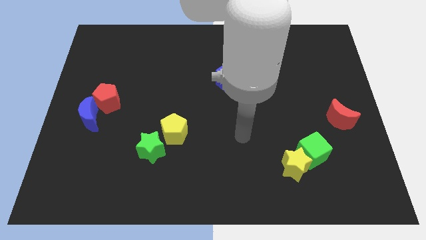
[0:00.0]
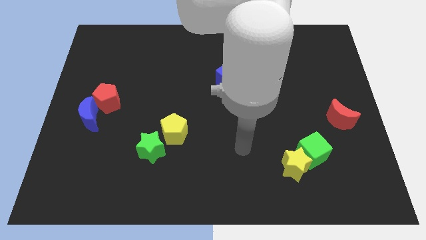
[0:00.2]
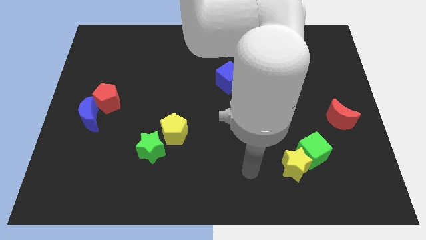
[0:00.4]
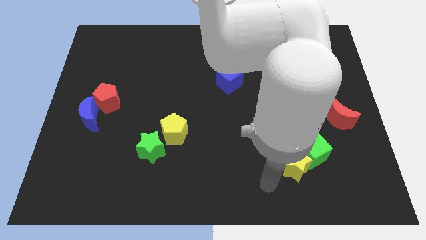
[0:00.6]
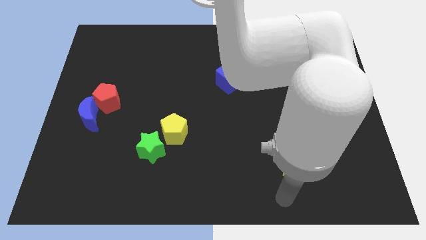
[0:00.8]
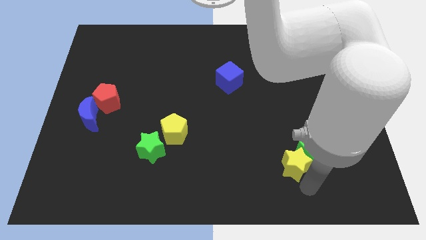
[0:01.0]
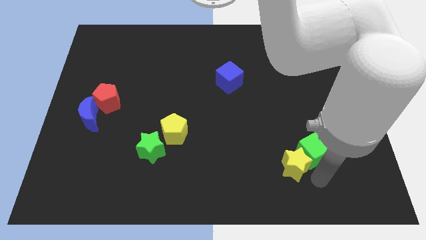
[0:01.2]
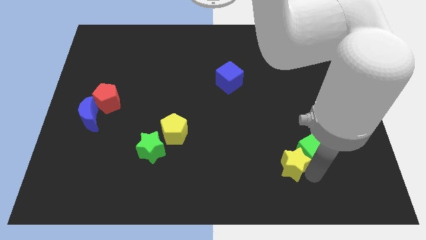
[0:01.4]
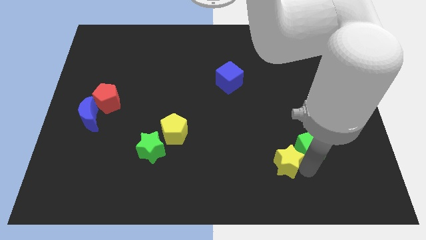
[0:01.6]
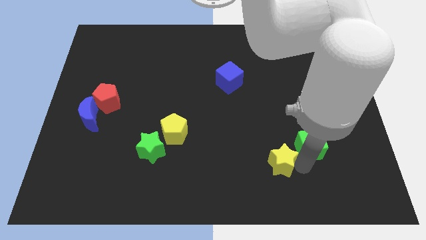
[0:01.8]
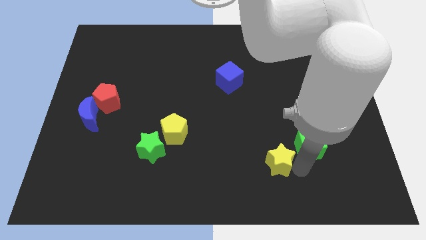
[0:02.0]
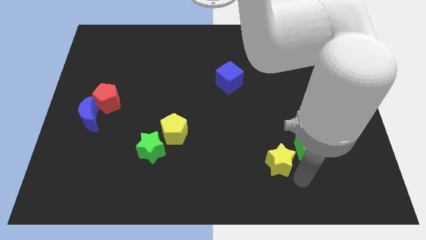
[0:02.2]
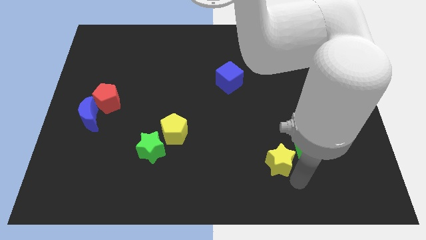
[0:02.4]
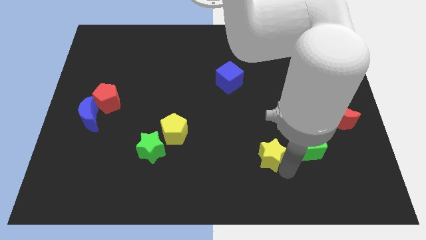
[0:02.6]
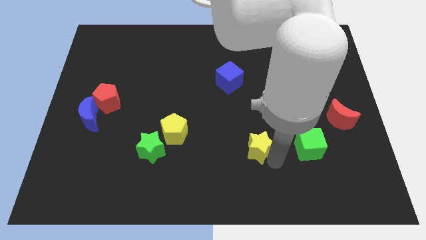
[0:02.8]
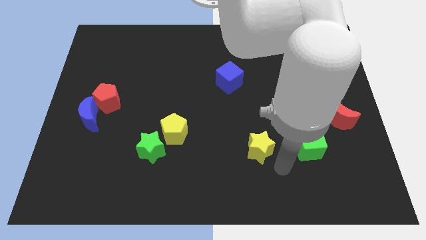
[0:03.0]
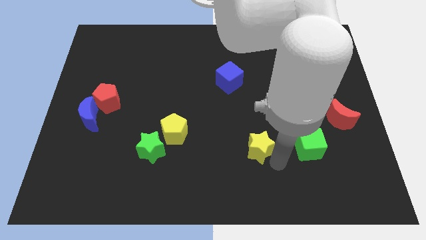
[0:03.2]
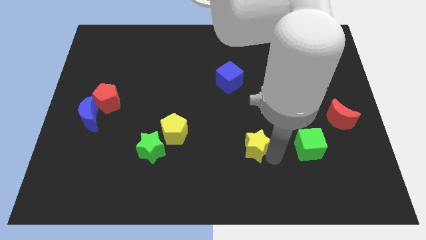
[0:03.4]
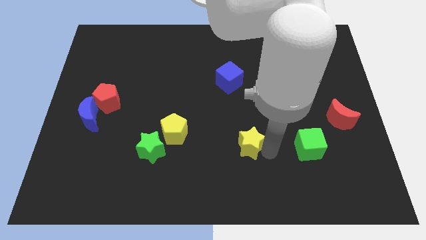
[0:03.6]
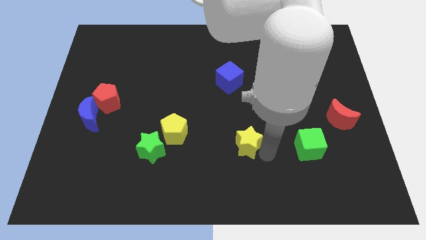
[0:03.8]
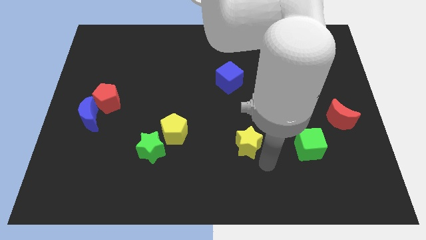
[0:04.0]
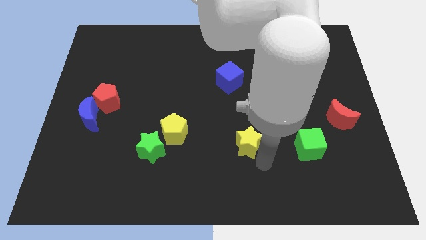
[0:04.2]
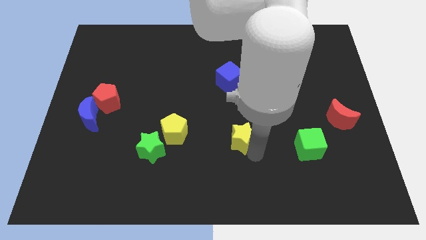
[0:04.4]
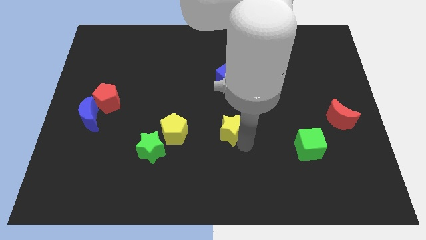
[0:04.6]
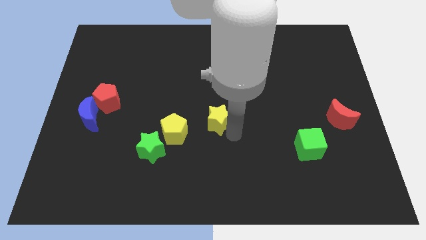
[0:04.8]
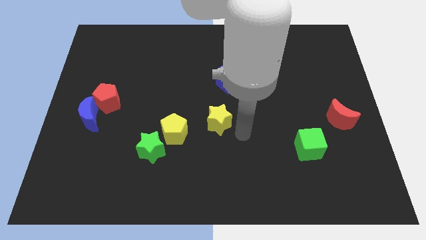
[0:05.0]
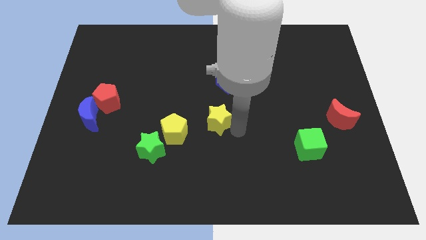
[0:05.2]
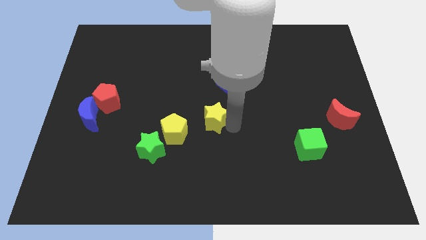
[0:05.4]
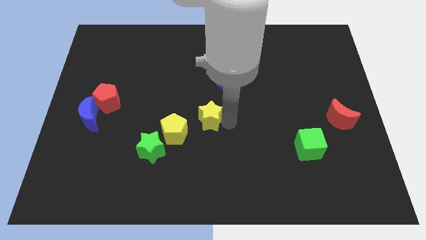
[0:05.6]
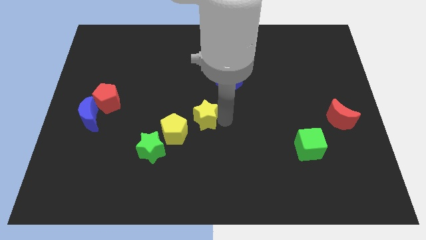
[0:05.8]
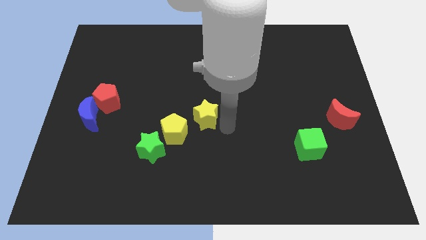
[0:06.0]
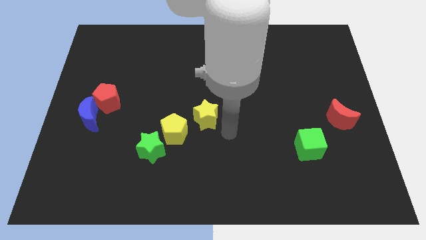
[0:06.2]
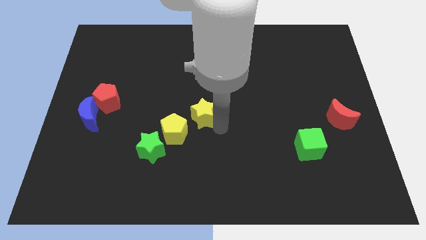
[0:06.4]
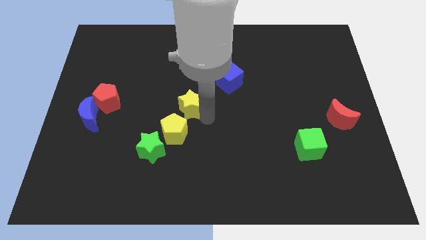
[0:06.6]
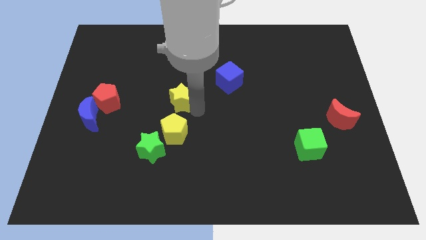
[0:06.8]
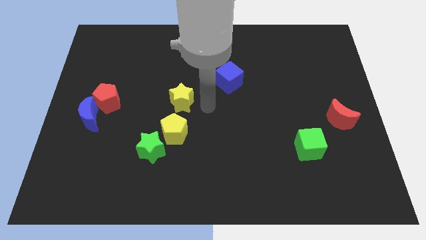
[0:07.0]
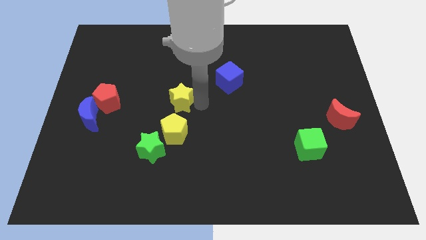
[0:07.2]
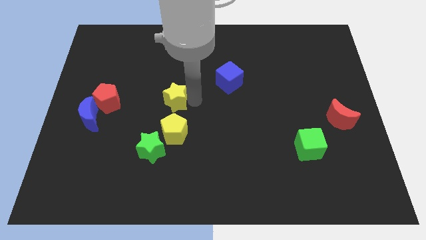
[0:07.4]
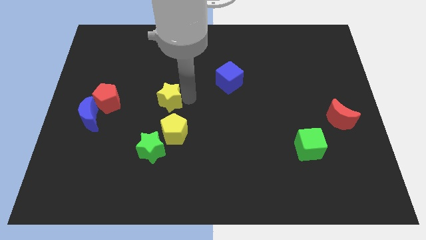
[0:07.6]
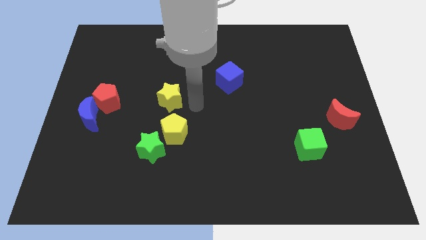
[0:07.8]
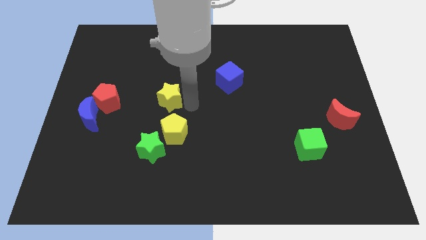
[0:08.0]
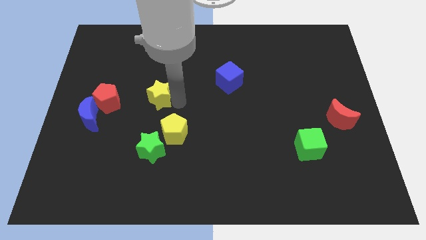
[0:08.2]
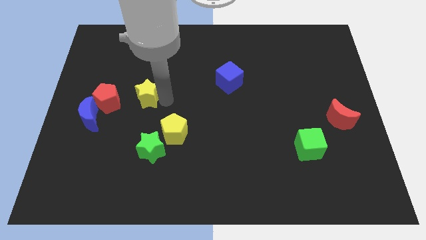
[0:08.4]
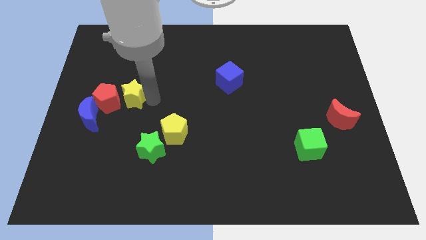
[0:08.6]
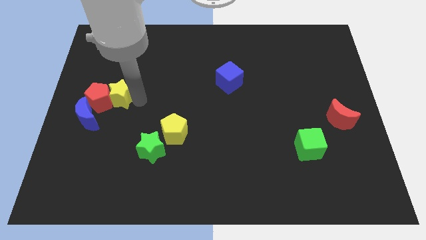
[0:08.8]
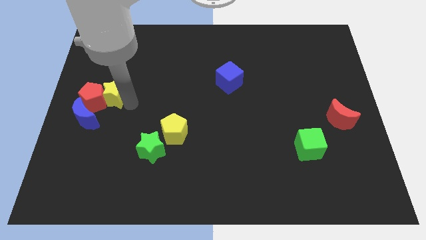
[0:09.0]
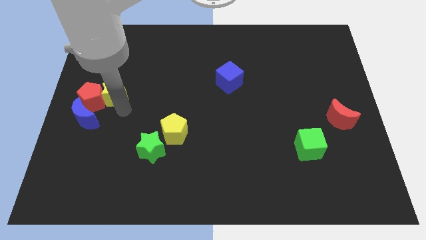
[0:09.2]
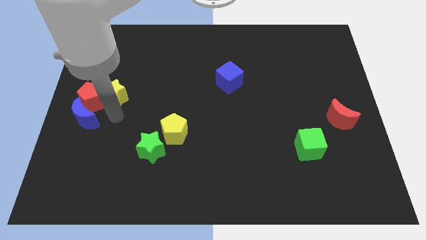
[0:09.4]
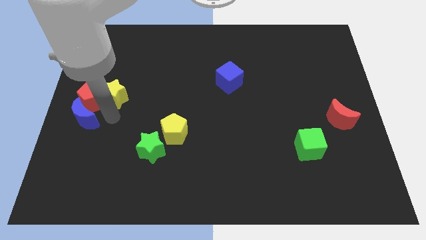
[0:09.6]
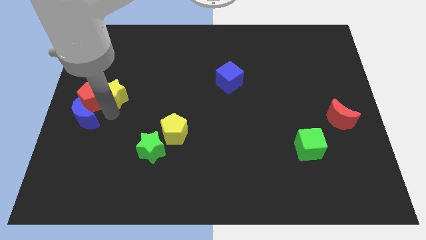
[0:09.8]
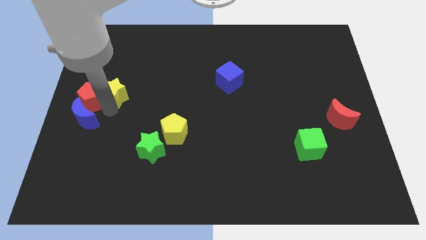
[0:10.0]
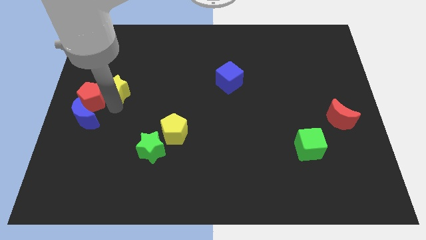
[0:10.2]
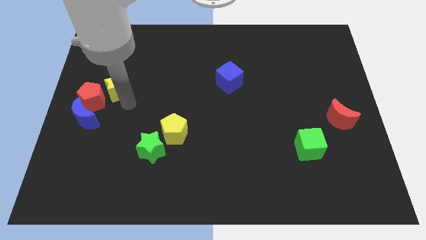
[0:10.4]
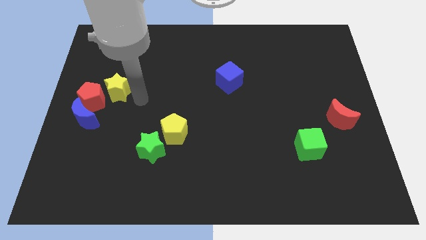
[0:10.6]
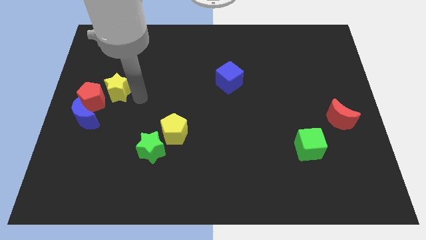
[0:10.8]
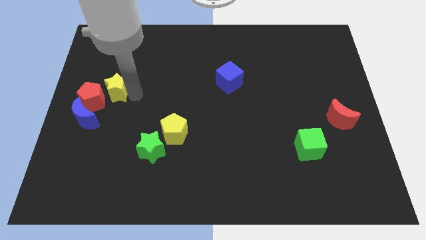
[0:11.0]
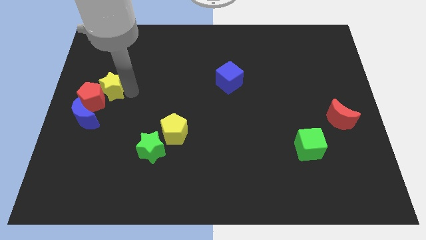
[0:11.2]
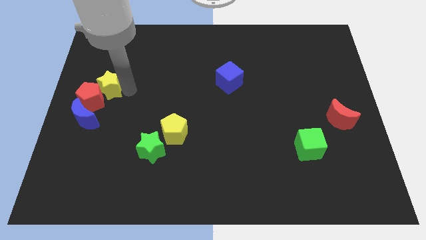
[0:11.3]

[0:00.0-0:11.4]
slide the yellow star above the blue moon

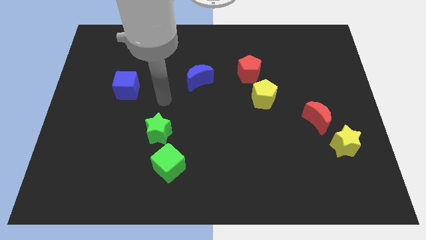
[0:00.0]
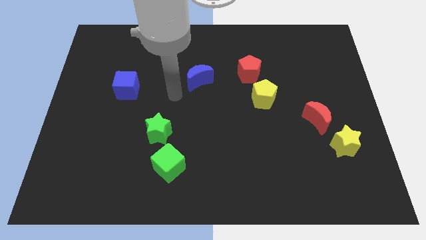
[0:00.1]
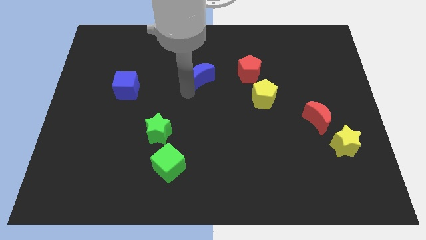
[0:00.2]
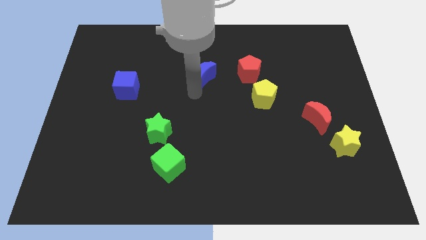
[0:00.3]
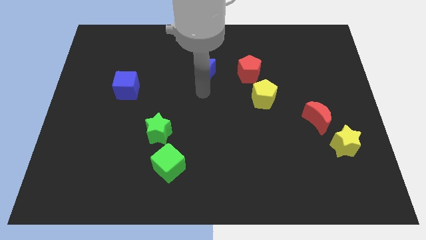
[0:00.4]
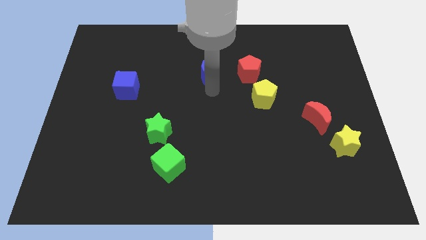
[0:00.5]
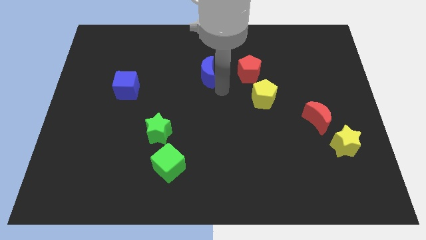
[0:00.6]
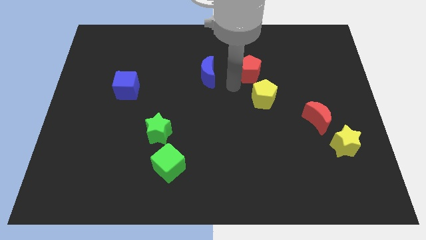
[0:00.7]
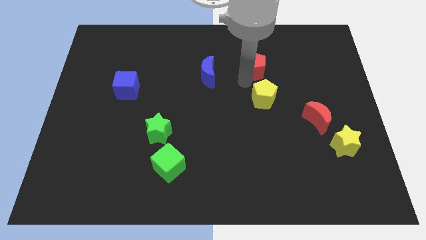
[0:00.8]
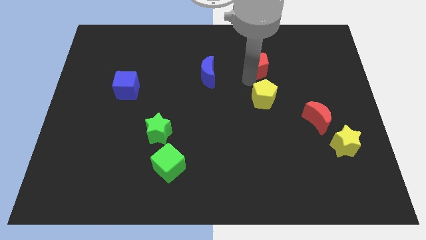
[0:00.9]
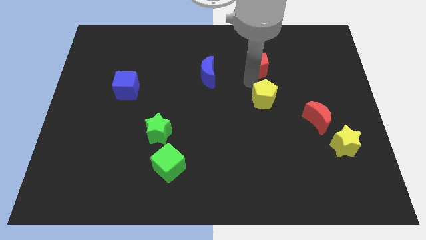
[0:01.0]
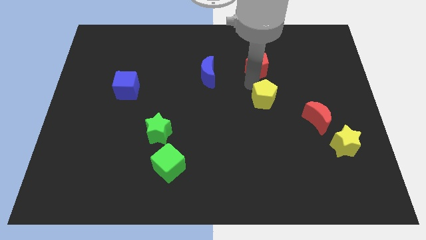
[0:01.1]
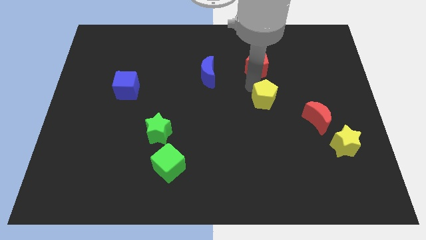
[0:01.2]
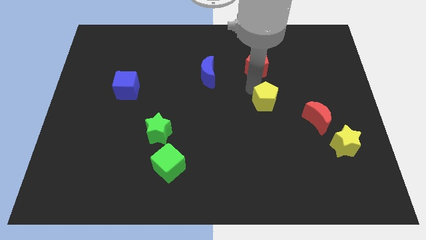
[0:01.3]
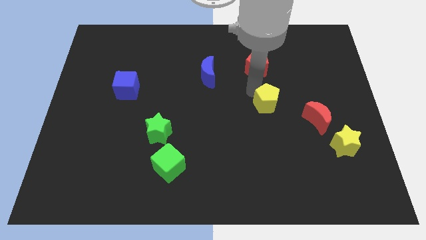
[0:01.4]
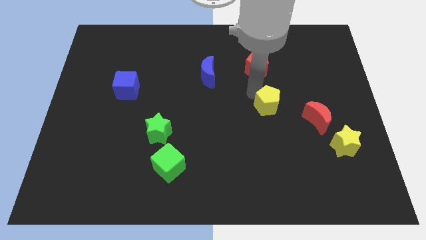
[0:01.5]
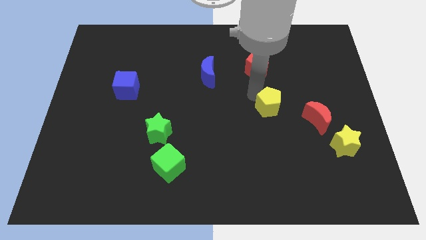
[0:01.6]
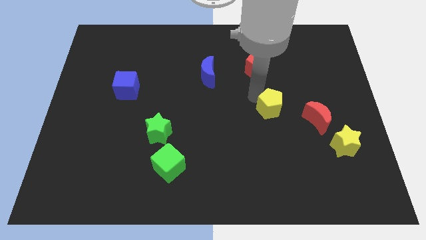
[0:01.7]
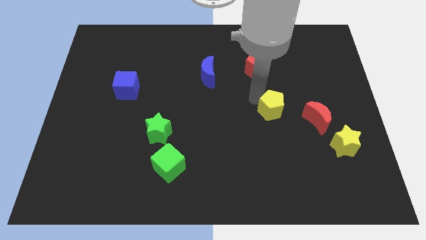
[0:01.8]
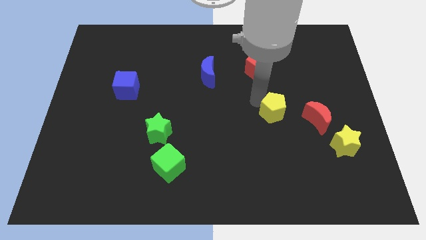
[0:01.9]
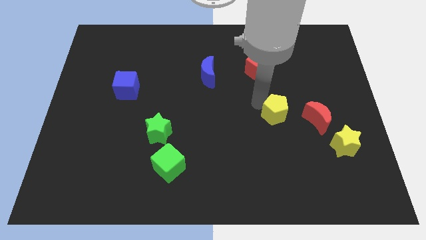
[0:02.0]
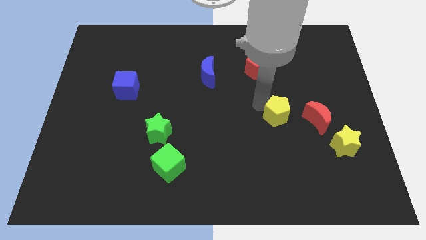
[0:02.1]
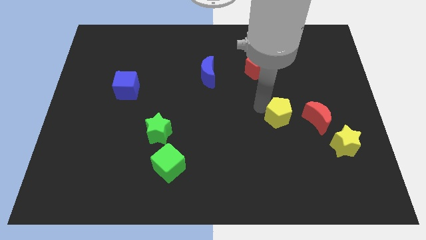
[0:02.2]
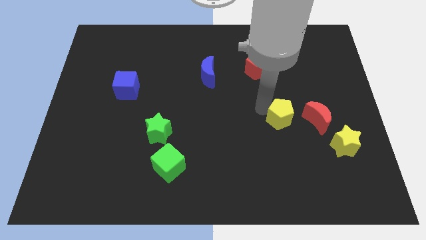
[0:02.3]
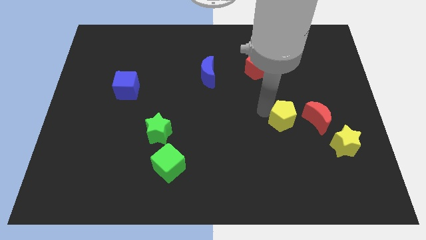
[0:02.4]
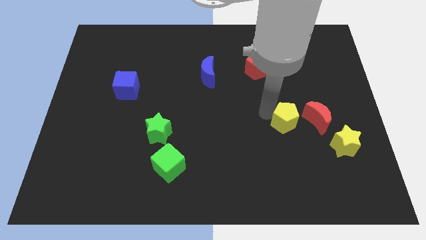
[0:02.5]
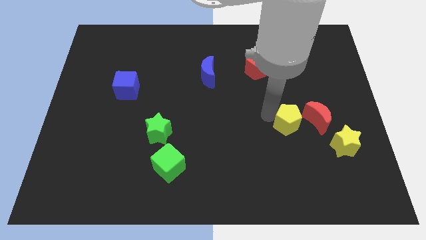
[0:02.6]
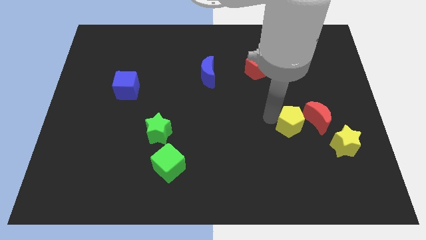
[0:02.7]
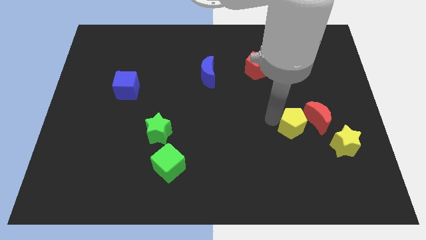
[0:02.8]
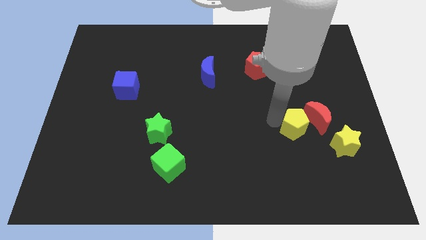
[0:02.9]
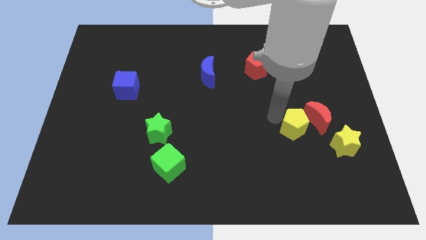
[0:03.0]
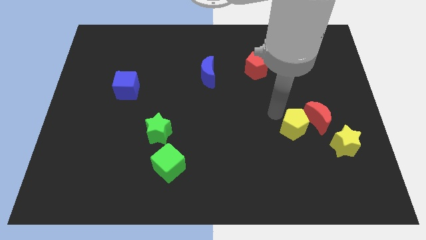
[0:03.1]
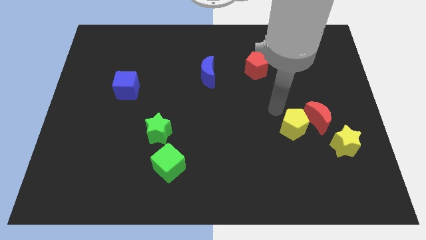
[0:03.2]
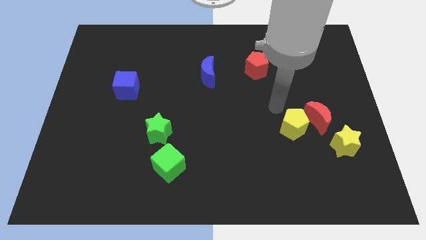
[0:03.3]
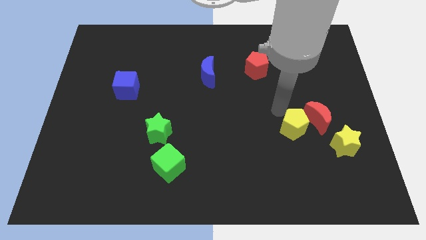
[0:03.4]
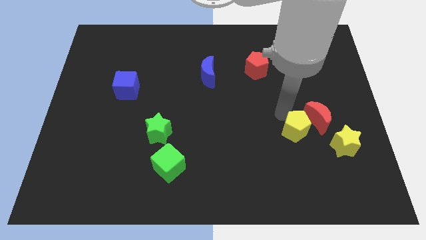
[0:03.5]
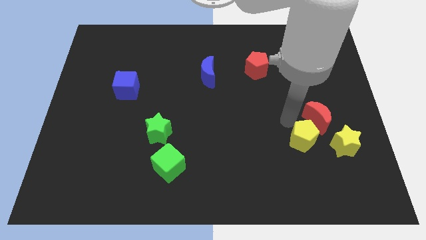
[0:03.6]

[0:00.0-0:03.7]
push the yellow pentagon below the red moon
